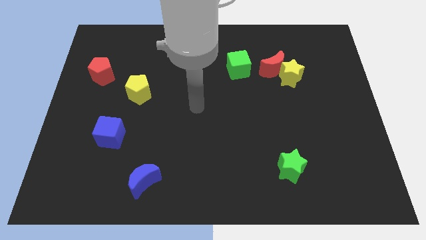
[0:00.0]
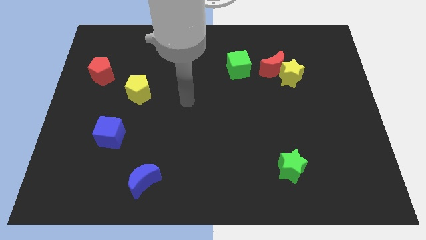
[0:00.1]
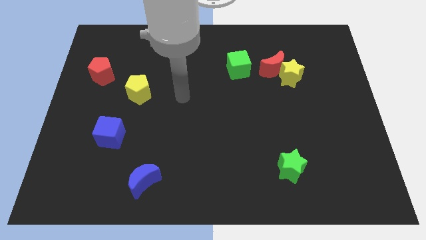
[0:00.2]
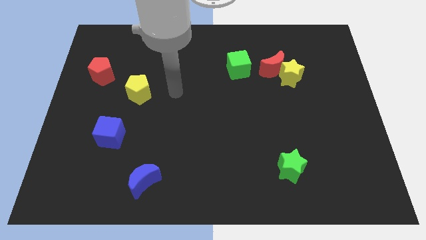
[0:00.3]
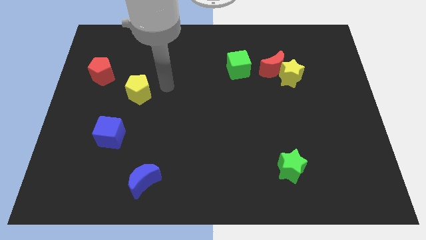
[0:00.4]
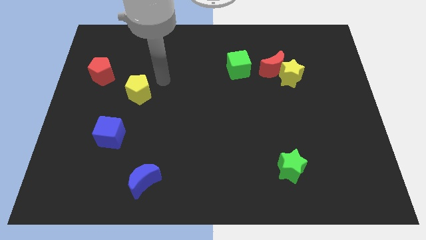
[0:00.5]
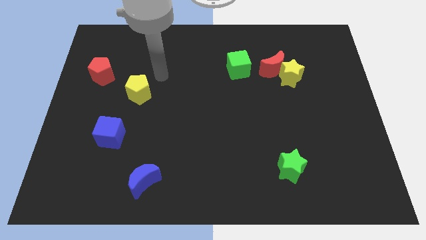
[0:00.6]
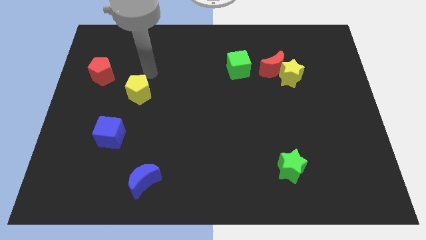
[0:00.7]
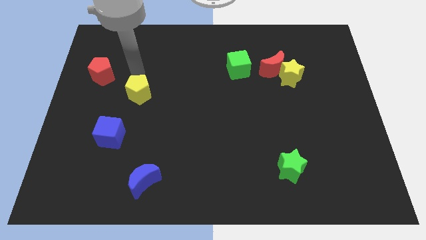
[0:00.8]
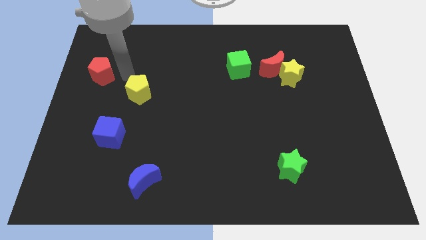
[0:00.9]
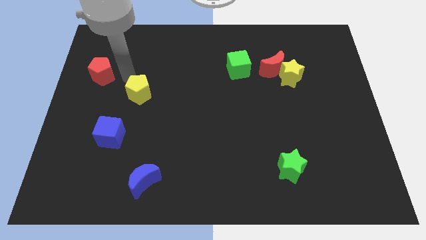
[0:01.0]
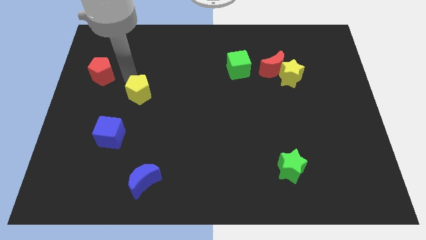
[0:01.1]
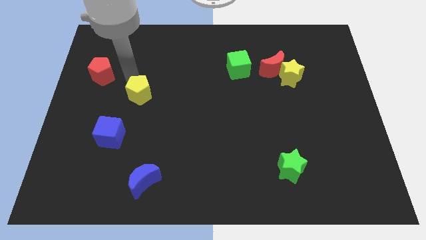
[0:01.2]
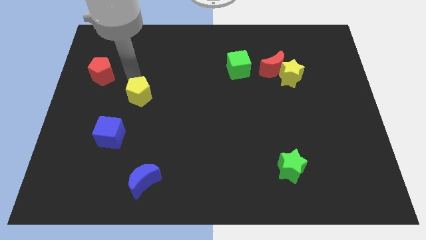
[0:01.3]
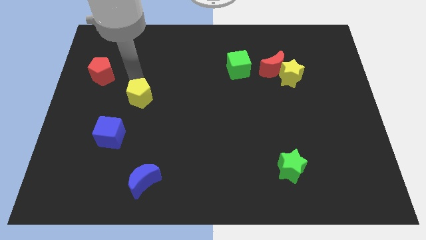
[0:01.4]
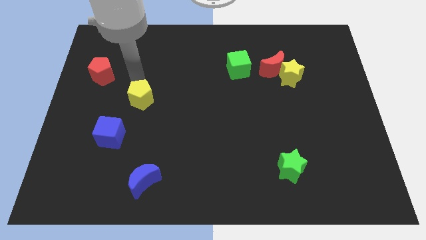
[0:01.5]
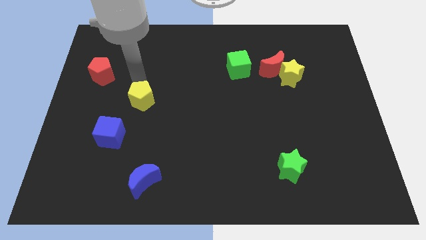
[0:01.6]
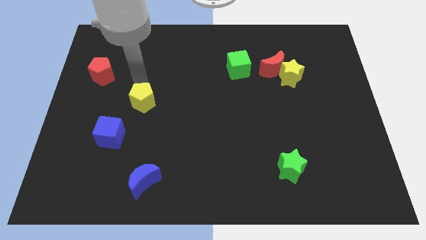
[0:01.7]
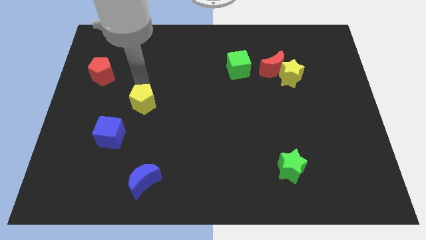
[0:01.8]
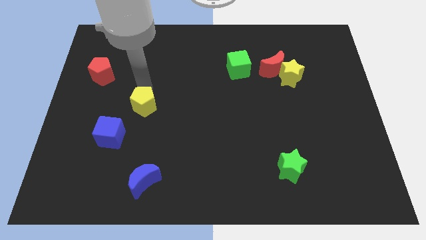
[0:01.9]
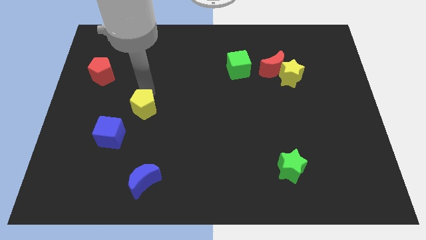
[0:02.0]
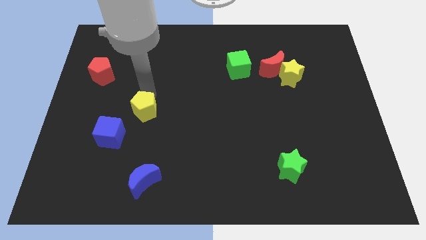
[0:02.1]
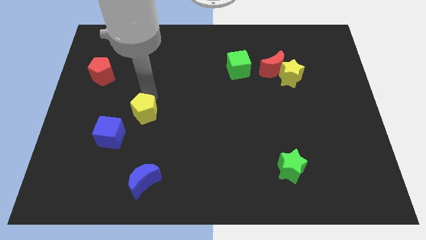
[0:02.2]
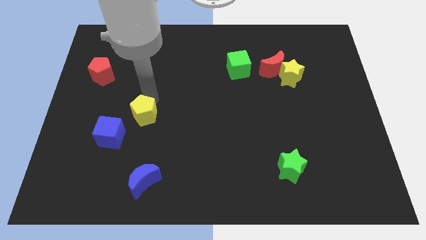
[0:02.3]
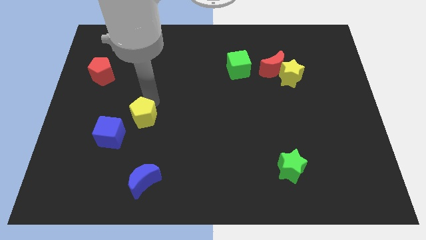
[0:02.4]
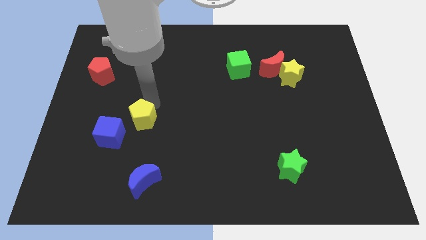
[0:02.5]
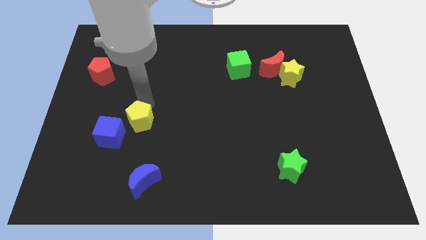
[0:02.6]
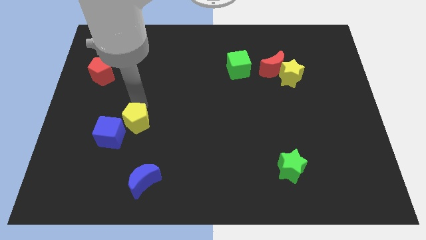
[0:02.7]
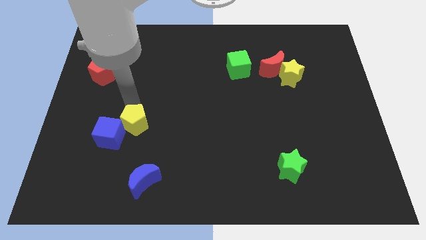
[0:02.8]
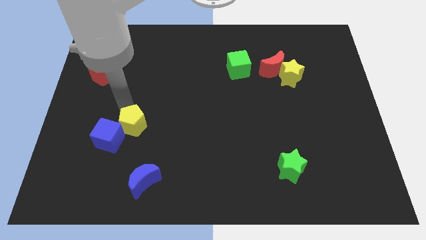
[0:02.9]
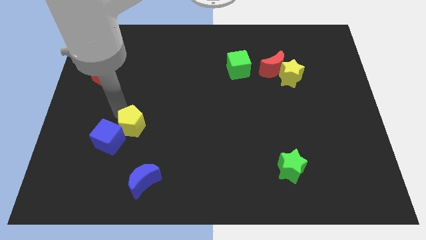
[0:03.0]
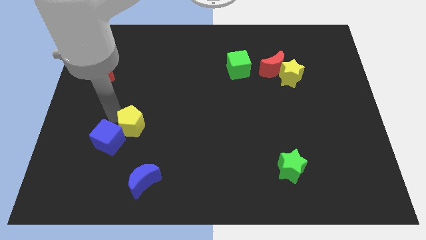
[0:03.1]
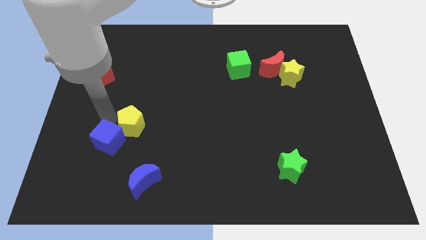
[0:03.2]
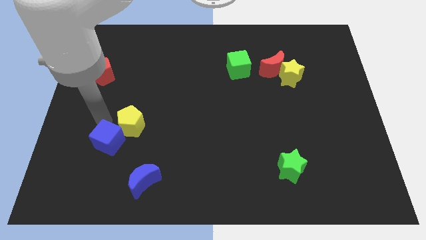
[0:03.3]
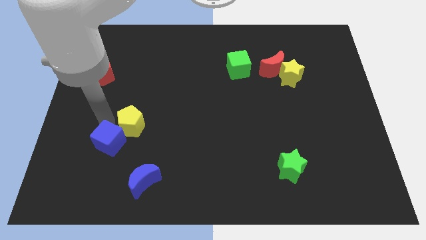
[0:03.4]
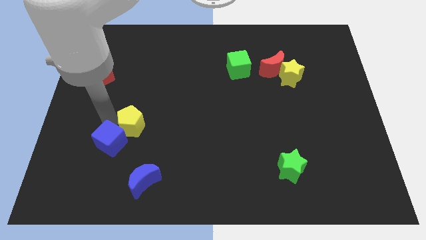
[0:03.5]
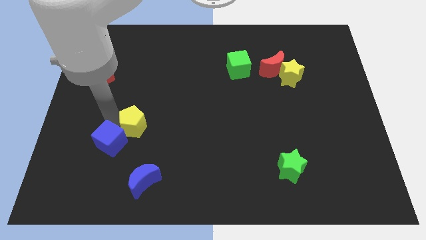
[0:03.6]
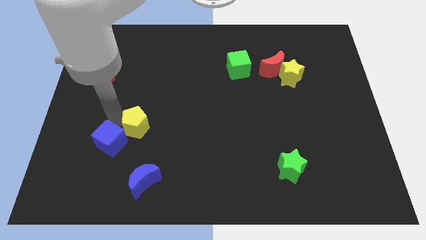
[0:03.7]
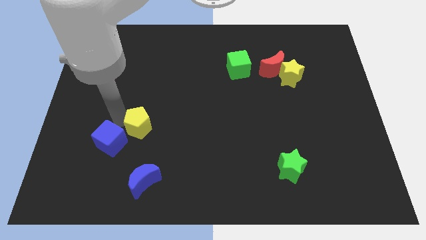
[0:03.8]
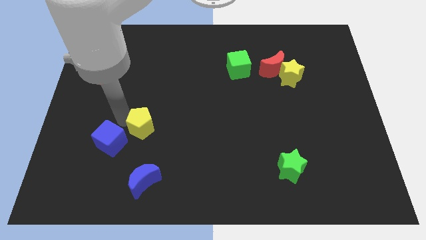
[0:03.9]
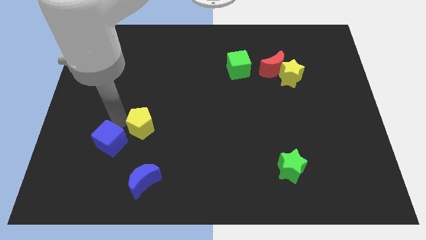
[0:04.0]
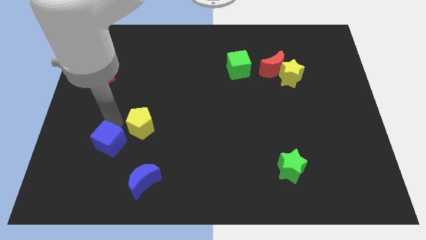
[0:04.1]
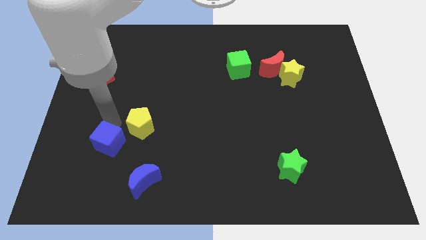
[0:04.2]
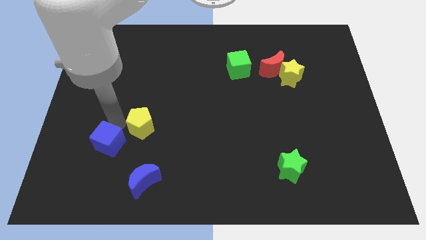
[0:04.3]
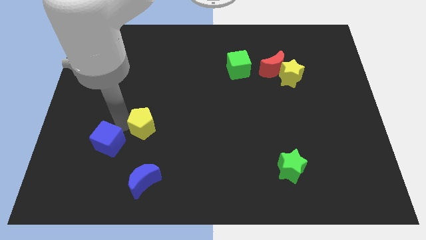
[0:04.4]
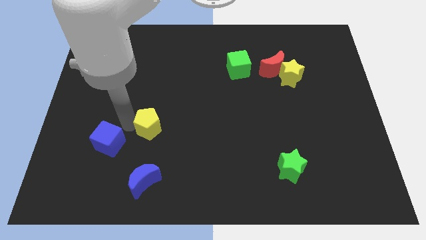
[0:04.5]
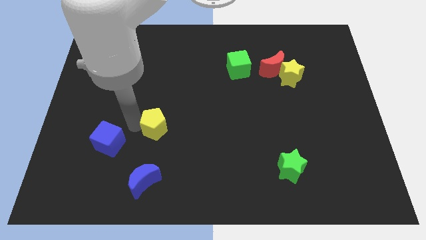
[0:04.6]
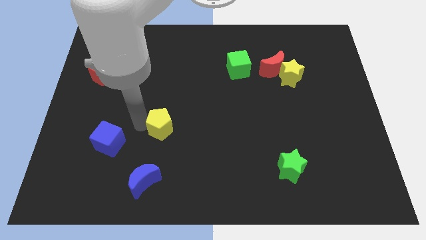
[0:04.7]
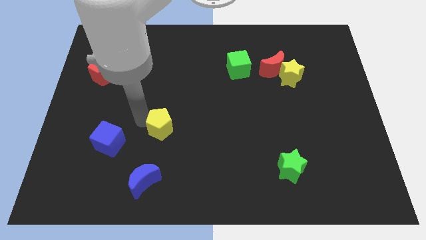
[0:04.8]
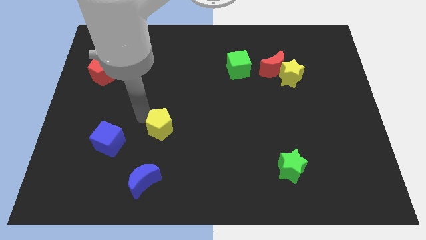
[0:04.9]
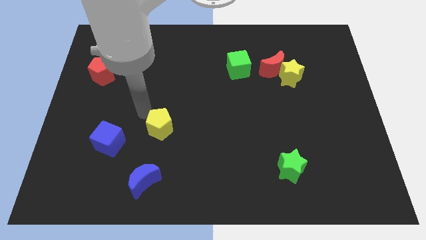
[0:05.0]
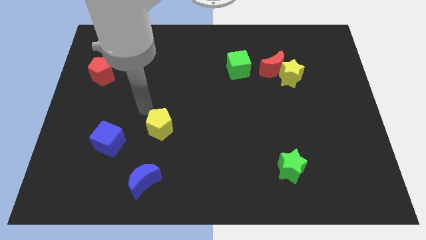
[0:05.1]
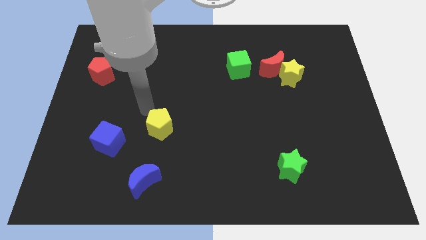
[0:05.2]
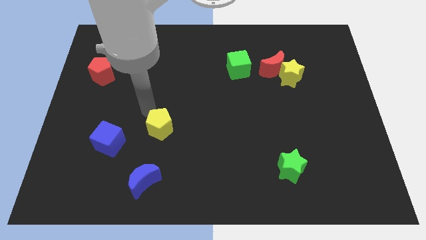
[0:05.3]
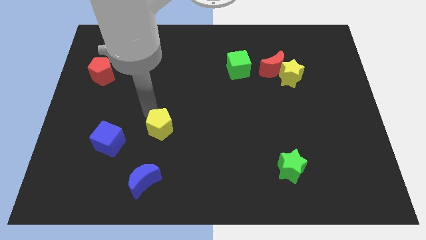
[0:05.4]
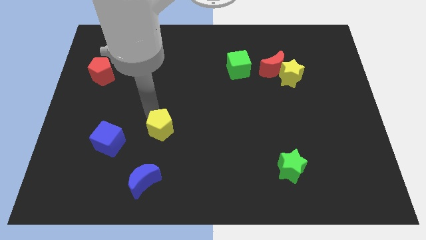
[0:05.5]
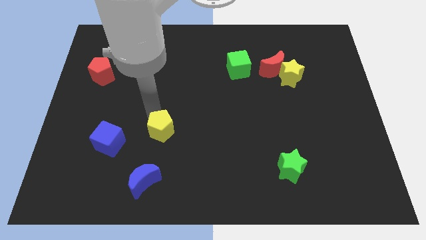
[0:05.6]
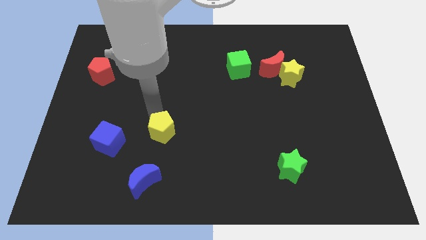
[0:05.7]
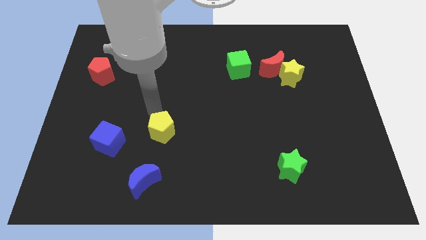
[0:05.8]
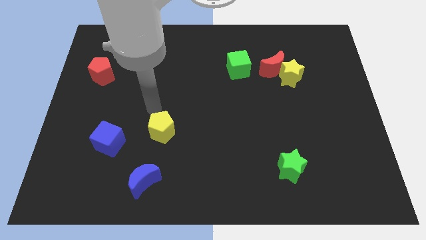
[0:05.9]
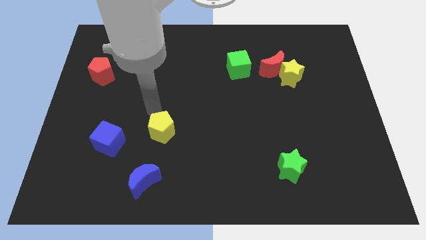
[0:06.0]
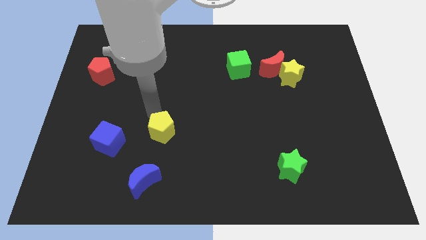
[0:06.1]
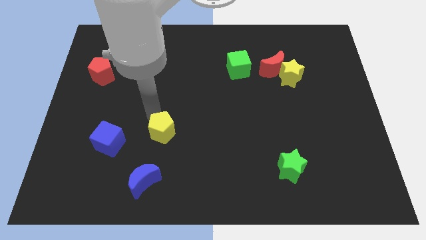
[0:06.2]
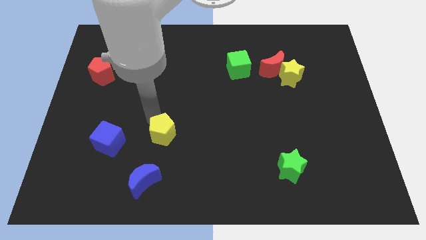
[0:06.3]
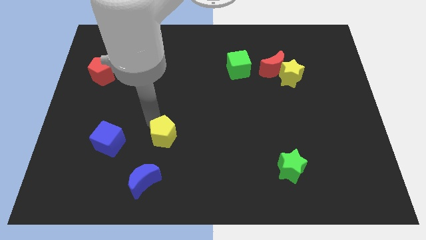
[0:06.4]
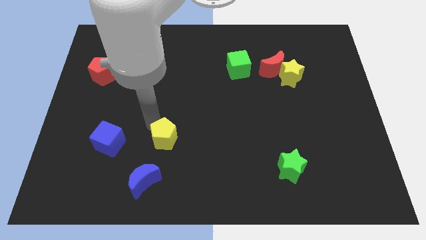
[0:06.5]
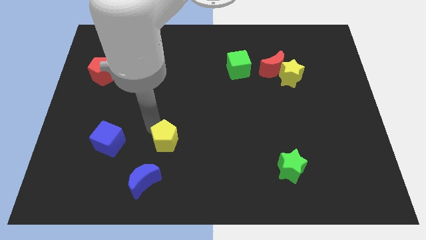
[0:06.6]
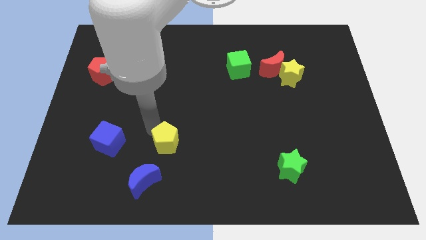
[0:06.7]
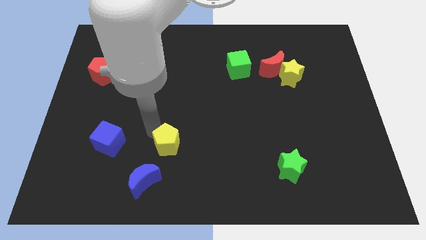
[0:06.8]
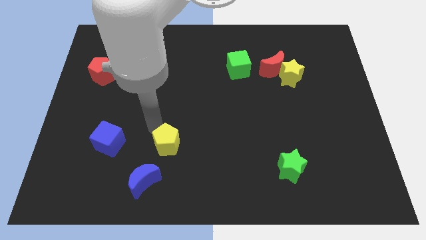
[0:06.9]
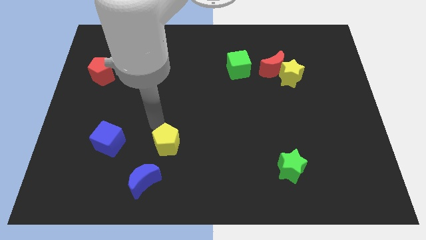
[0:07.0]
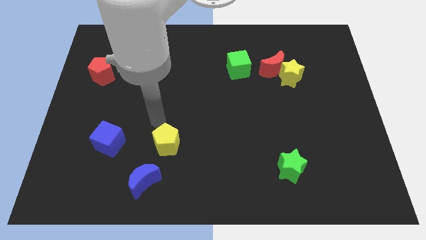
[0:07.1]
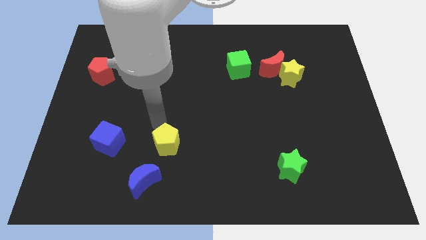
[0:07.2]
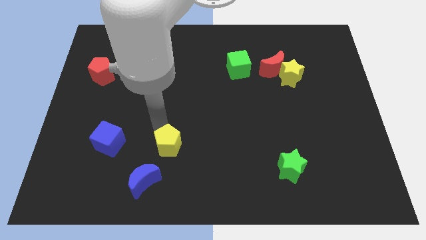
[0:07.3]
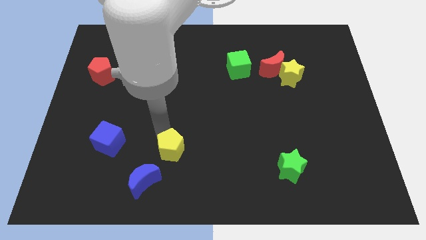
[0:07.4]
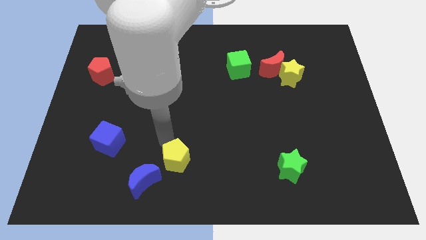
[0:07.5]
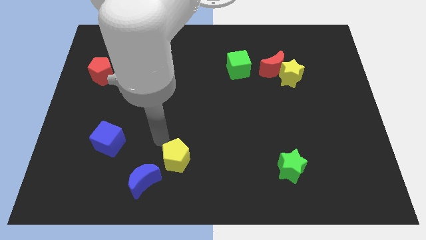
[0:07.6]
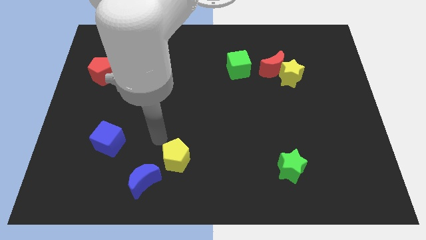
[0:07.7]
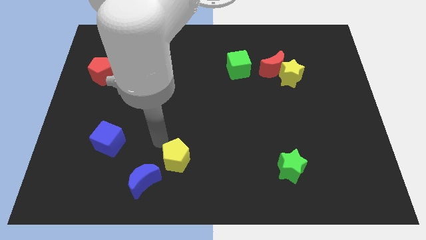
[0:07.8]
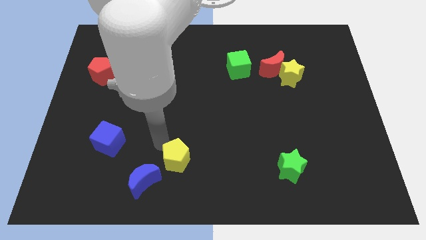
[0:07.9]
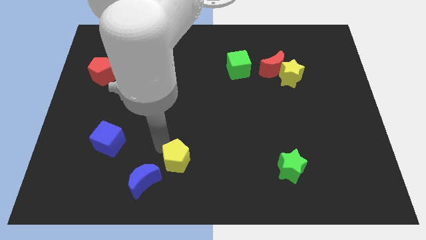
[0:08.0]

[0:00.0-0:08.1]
push the yellow pentagon to the right of the blue moon
